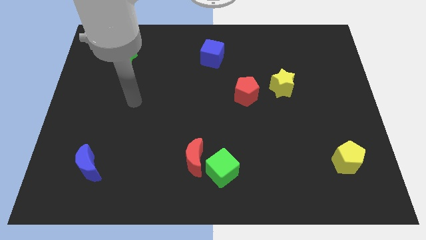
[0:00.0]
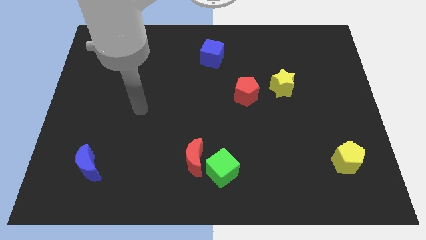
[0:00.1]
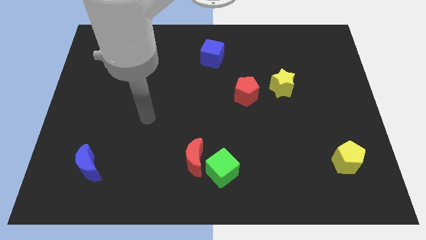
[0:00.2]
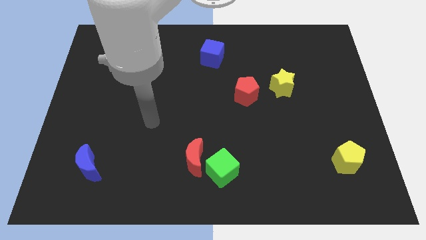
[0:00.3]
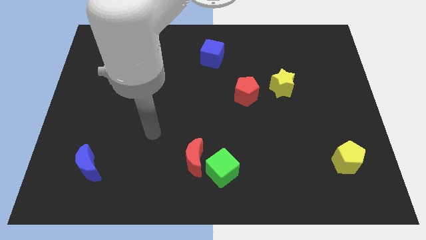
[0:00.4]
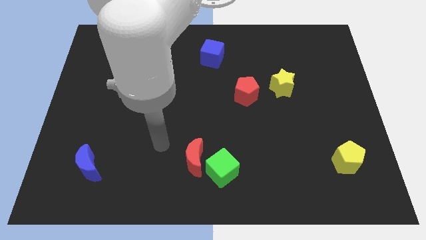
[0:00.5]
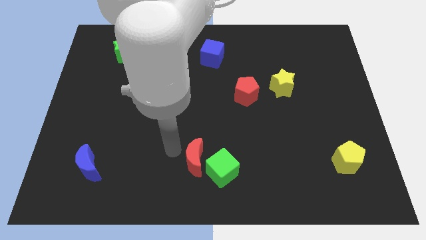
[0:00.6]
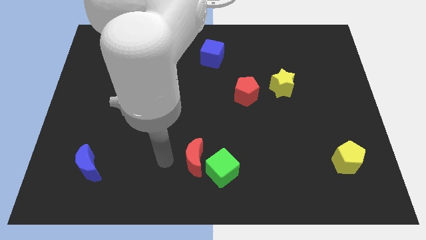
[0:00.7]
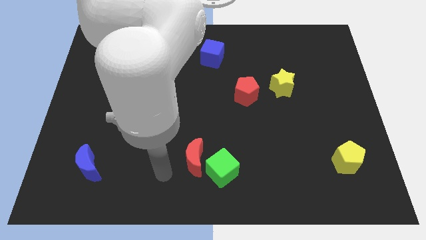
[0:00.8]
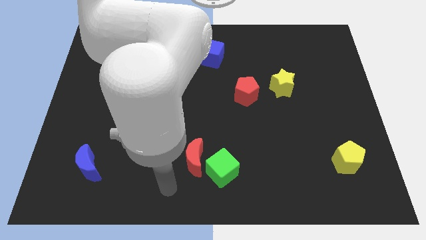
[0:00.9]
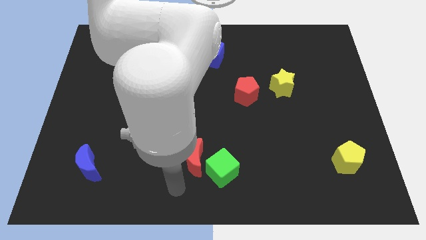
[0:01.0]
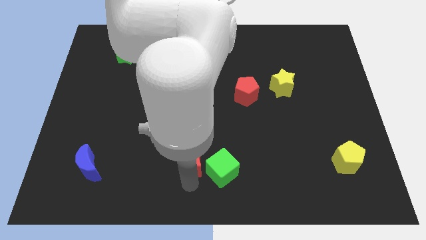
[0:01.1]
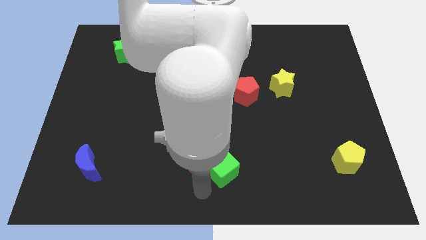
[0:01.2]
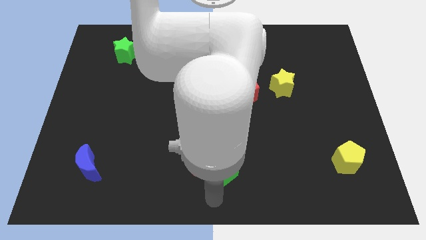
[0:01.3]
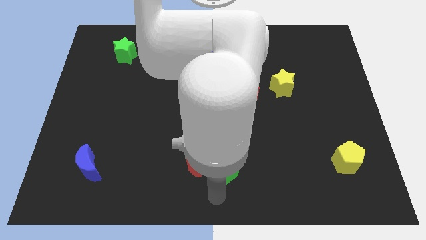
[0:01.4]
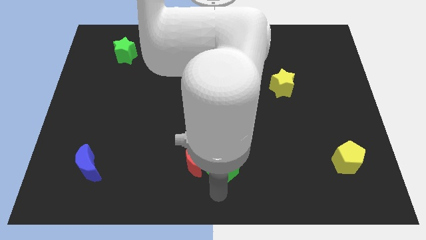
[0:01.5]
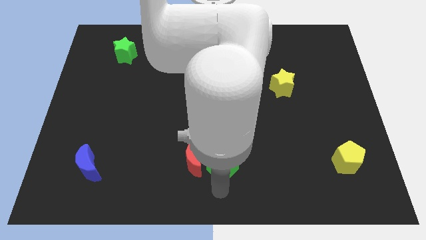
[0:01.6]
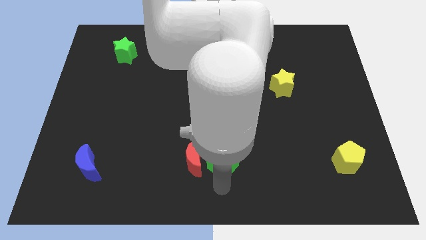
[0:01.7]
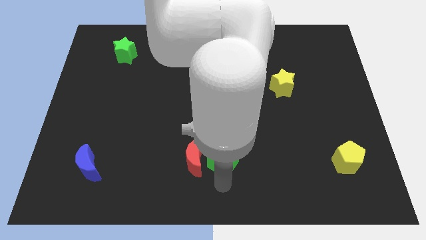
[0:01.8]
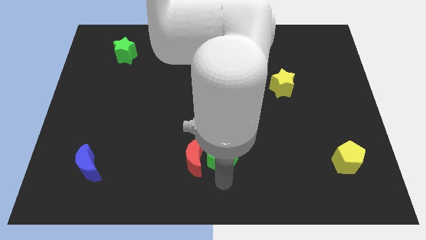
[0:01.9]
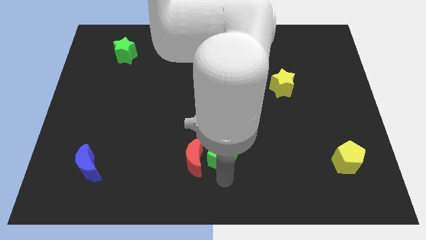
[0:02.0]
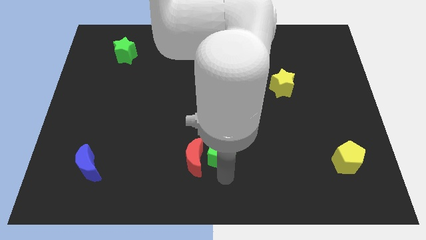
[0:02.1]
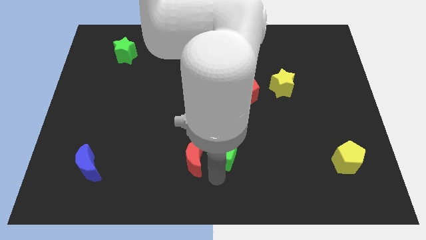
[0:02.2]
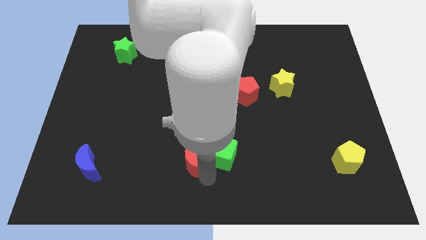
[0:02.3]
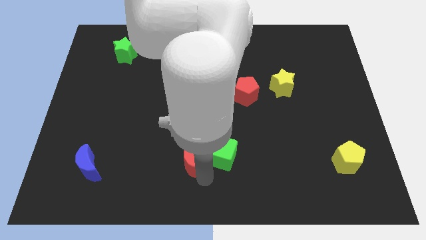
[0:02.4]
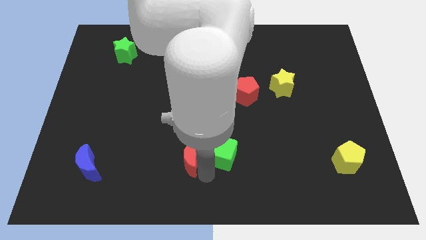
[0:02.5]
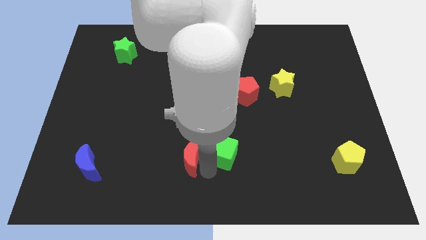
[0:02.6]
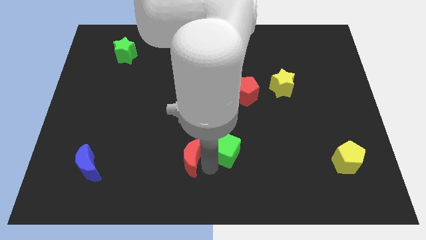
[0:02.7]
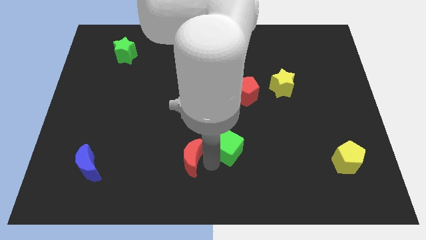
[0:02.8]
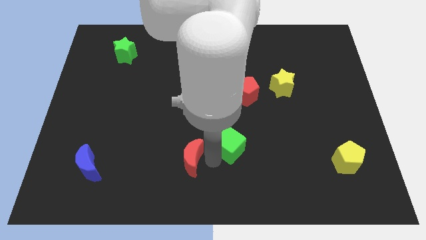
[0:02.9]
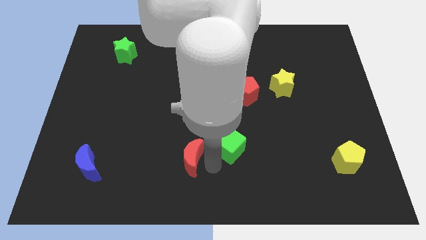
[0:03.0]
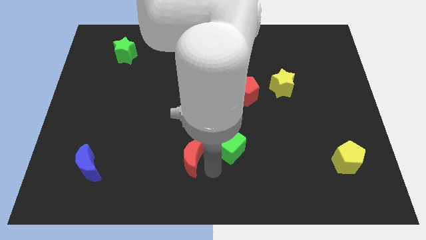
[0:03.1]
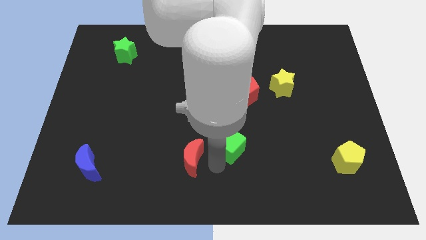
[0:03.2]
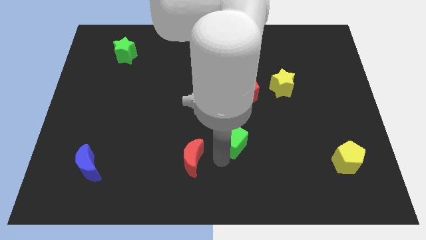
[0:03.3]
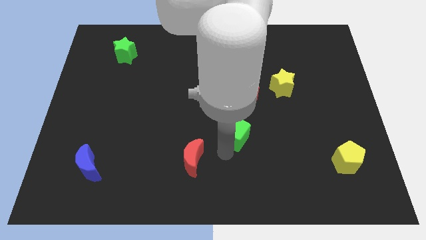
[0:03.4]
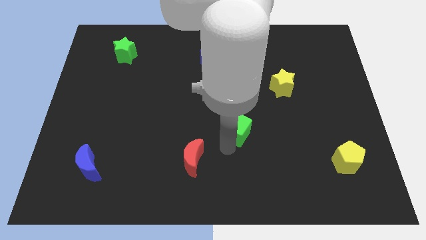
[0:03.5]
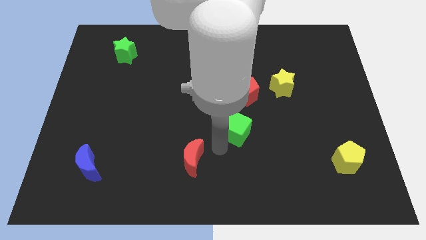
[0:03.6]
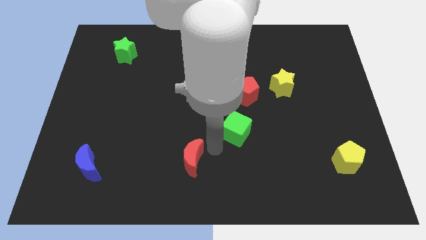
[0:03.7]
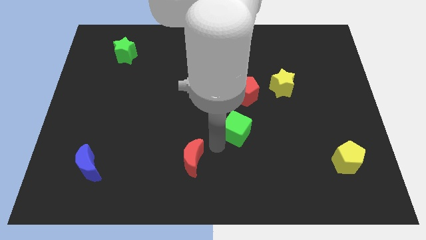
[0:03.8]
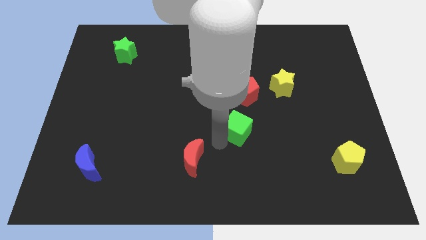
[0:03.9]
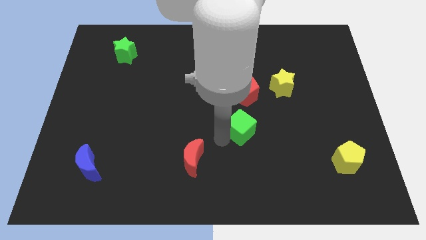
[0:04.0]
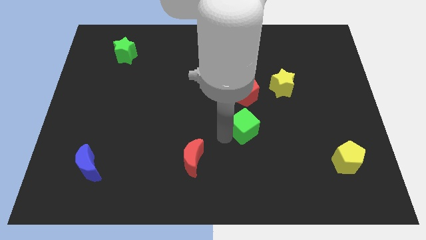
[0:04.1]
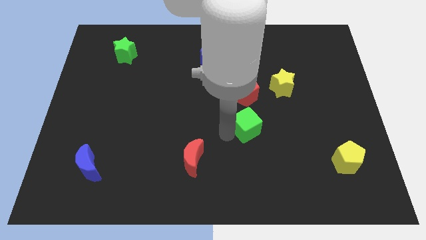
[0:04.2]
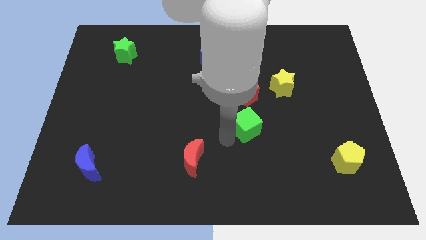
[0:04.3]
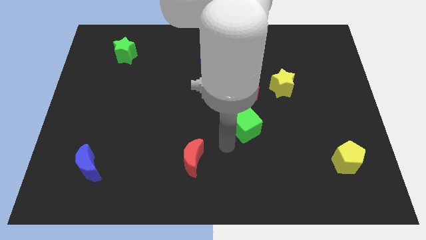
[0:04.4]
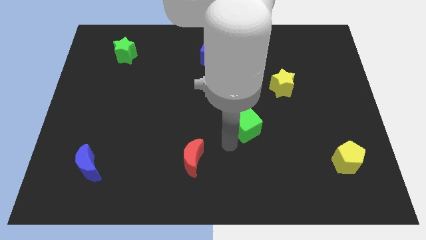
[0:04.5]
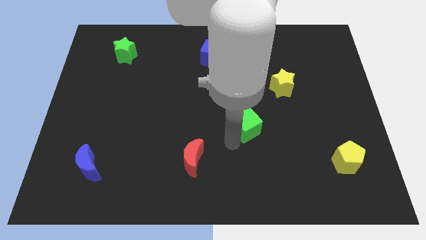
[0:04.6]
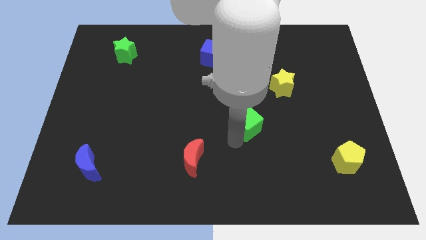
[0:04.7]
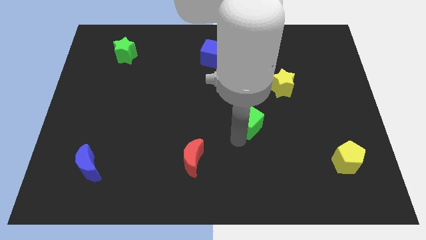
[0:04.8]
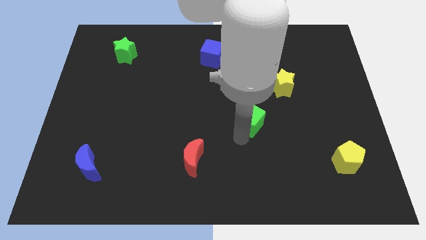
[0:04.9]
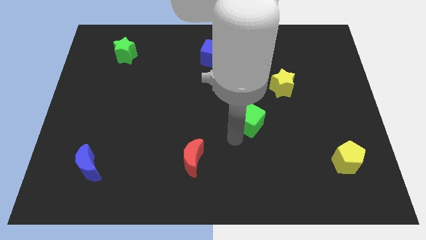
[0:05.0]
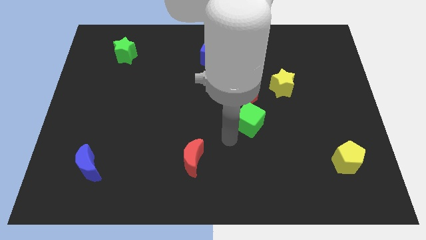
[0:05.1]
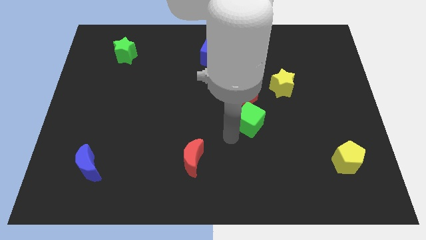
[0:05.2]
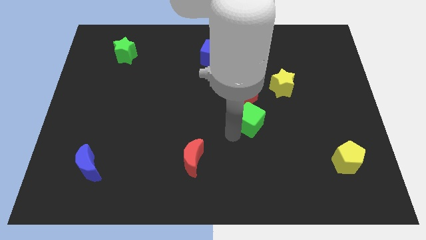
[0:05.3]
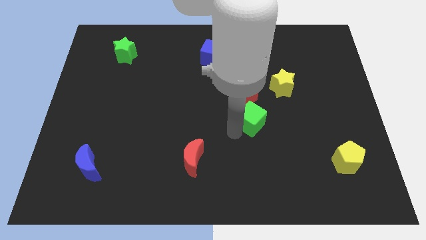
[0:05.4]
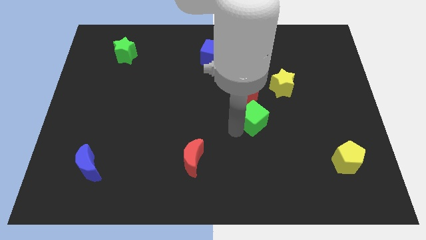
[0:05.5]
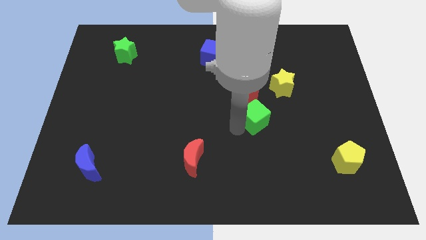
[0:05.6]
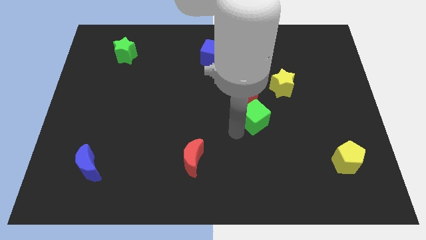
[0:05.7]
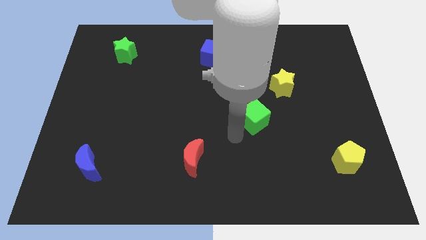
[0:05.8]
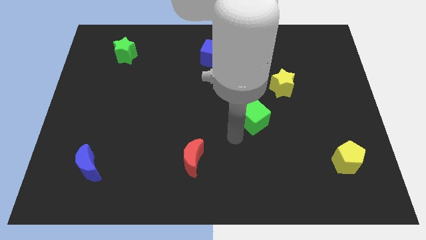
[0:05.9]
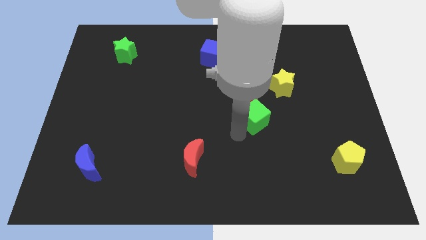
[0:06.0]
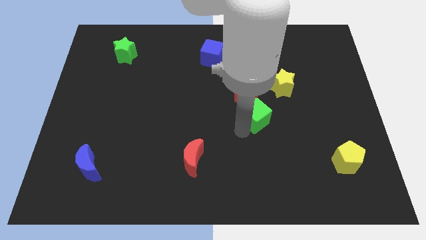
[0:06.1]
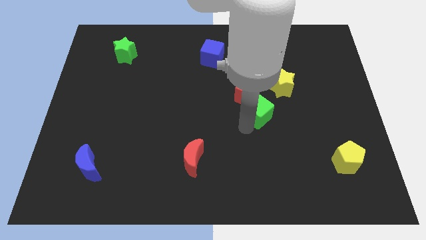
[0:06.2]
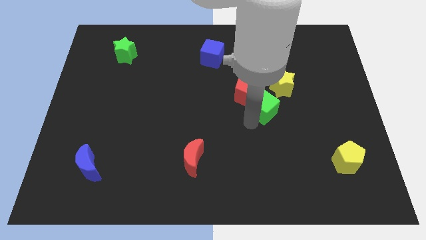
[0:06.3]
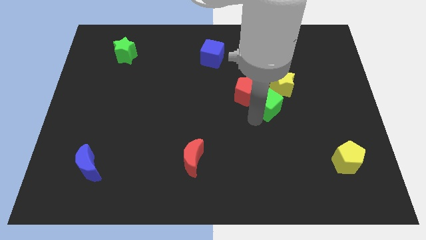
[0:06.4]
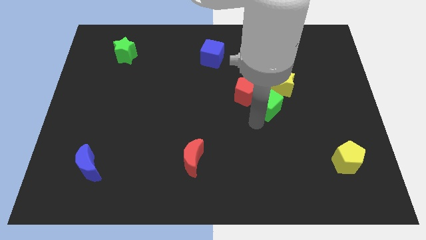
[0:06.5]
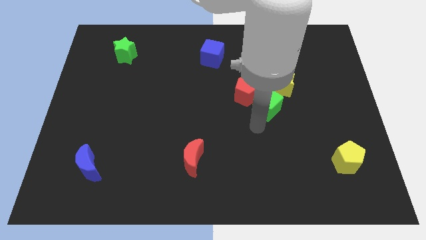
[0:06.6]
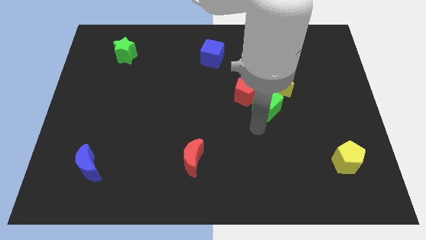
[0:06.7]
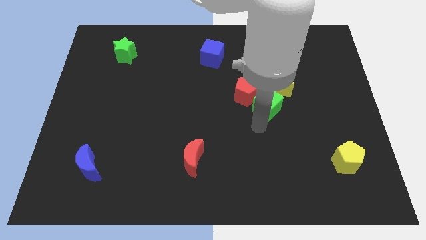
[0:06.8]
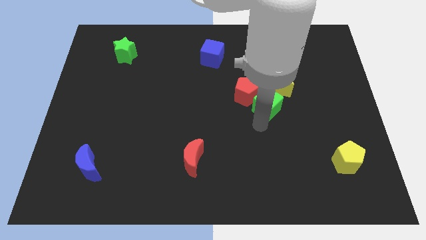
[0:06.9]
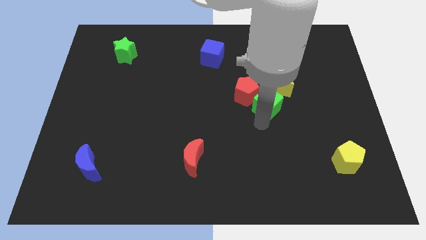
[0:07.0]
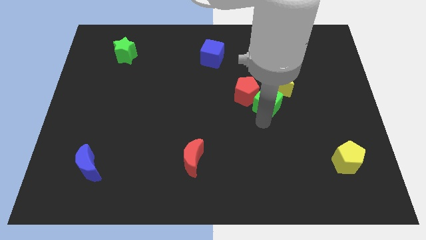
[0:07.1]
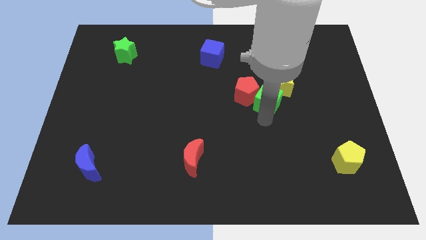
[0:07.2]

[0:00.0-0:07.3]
move the green cube to the yellow star
